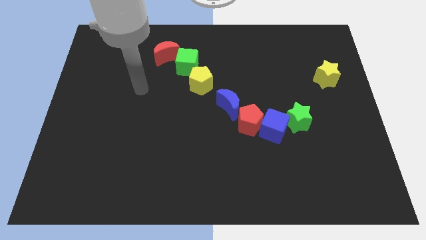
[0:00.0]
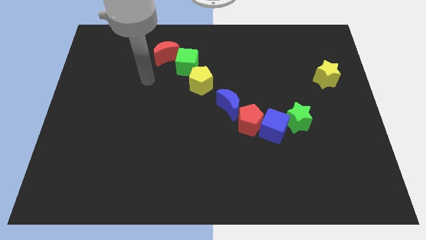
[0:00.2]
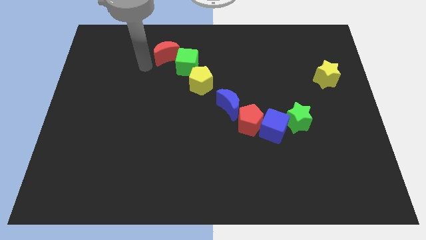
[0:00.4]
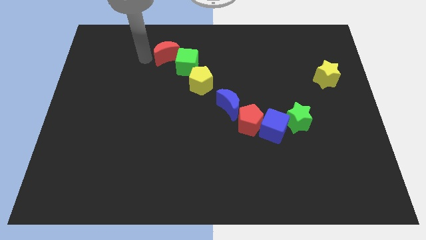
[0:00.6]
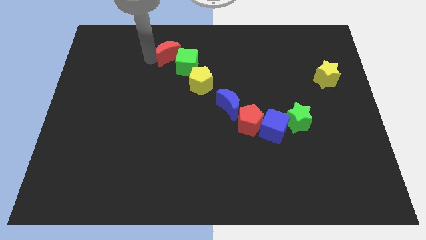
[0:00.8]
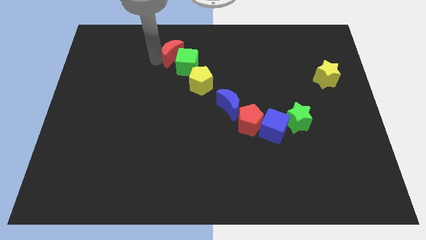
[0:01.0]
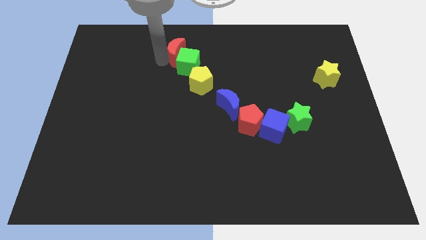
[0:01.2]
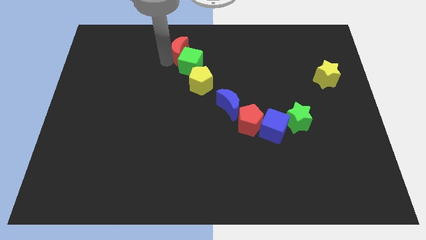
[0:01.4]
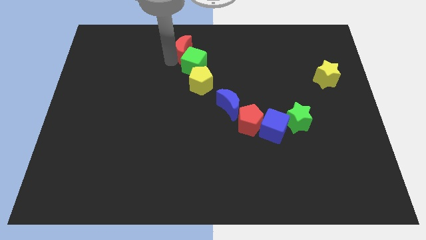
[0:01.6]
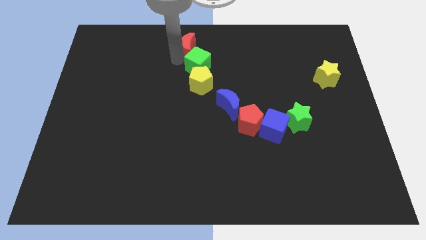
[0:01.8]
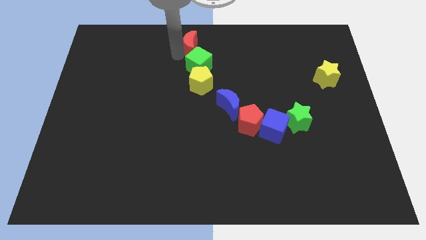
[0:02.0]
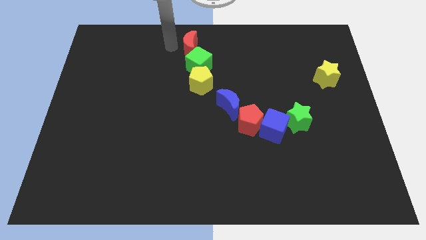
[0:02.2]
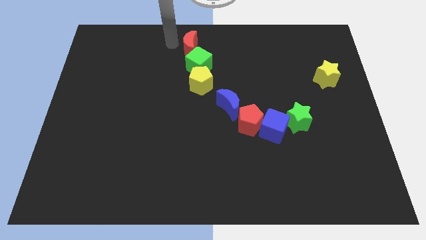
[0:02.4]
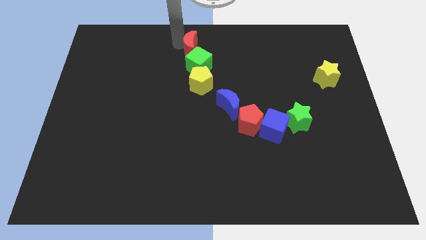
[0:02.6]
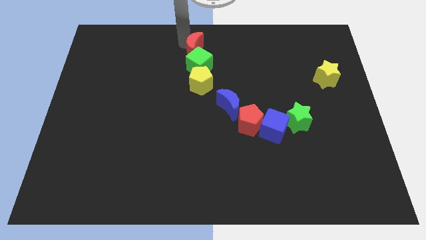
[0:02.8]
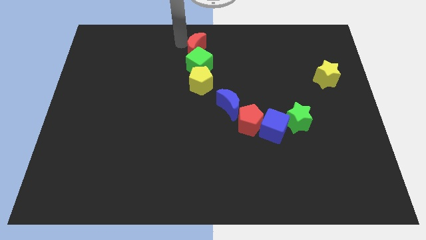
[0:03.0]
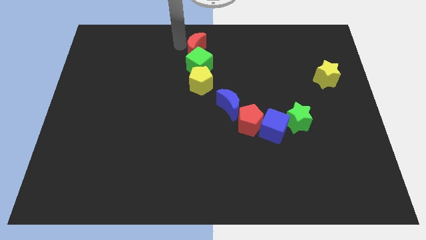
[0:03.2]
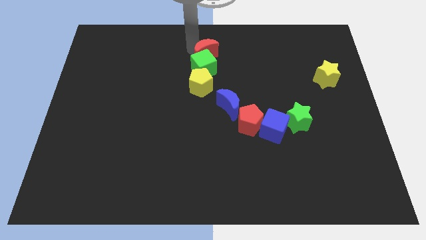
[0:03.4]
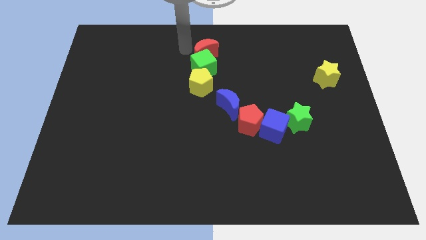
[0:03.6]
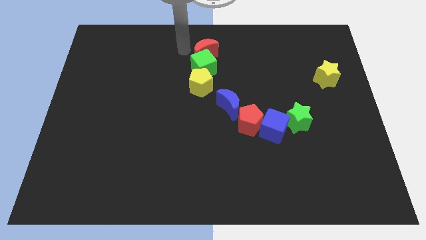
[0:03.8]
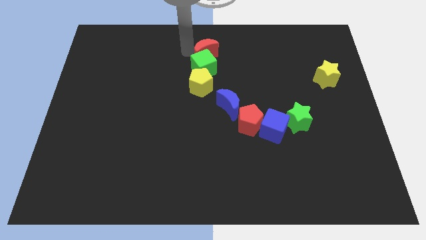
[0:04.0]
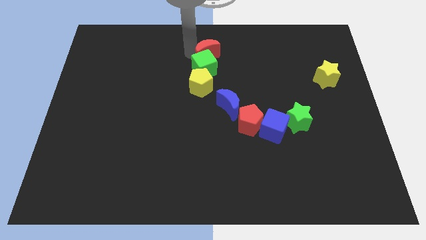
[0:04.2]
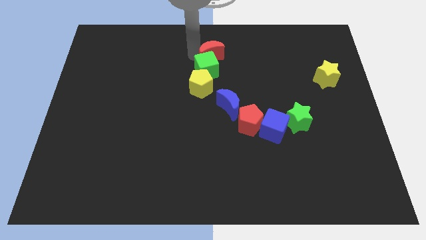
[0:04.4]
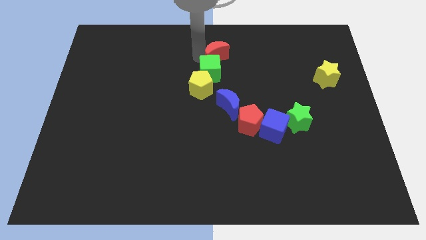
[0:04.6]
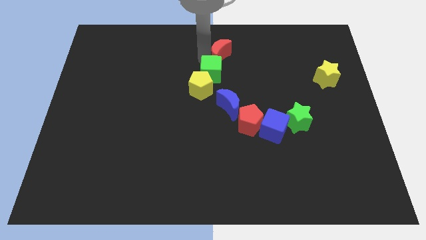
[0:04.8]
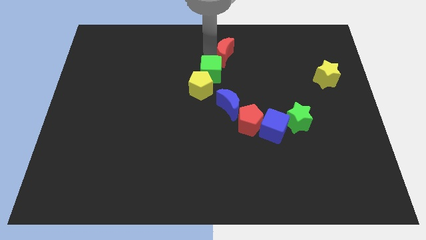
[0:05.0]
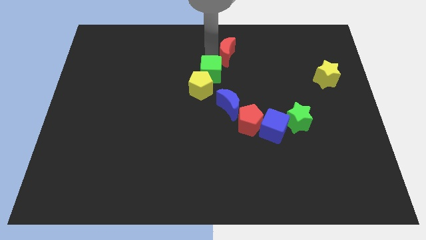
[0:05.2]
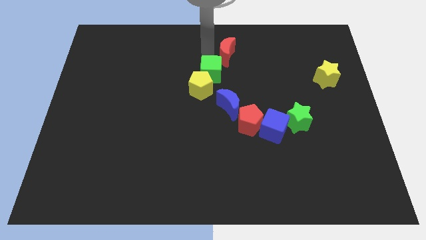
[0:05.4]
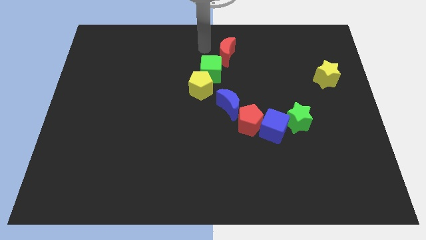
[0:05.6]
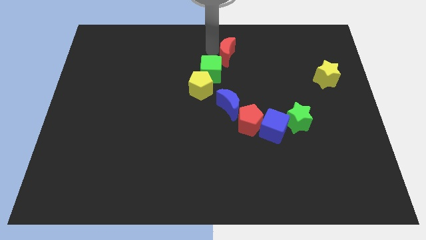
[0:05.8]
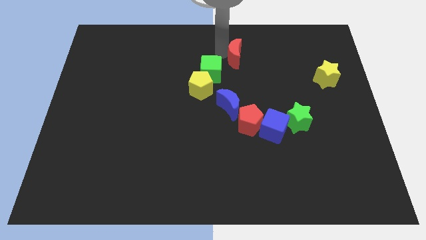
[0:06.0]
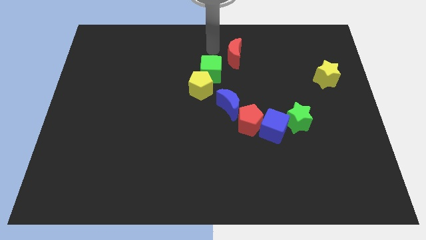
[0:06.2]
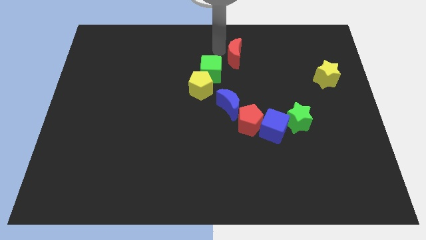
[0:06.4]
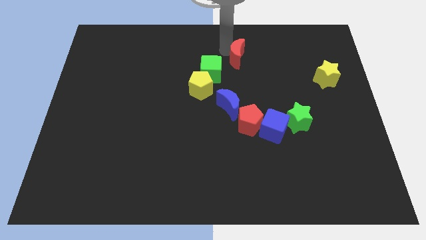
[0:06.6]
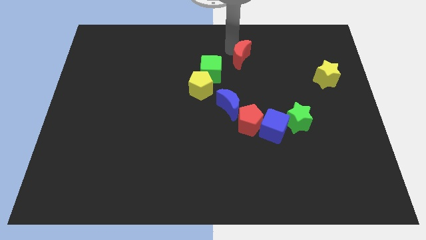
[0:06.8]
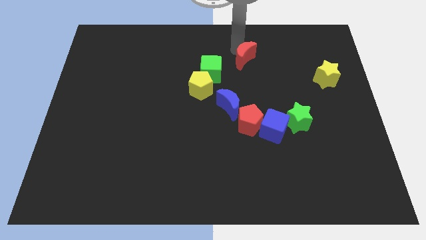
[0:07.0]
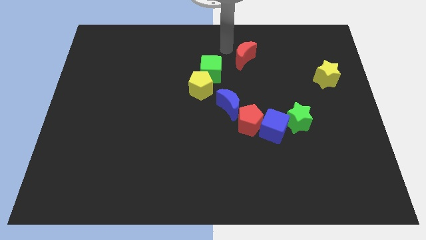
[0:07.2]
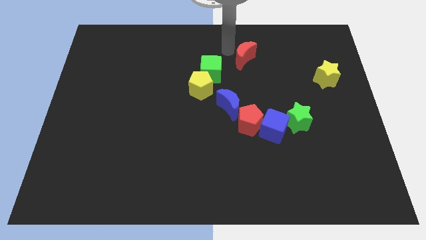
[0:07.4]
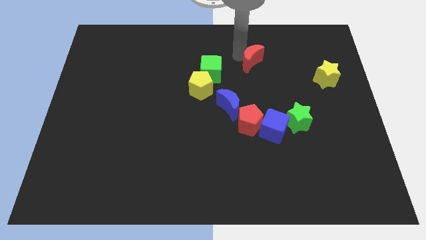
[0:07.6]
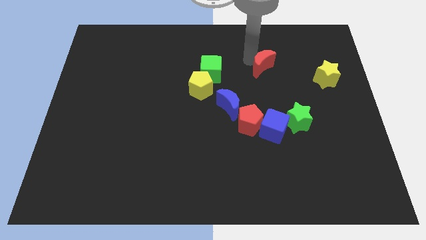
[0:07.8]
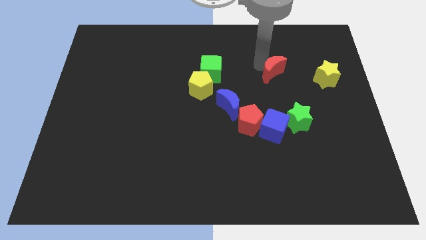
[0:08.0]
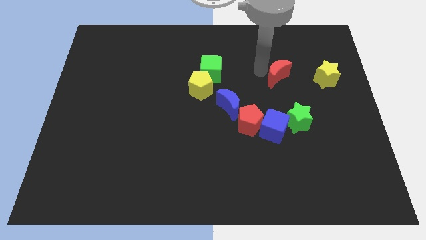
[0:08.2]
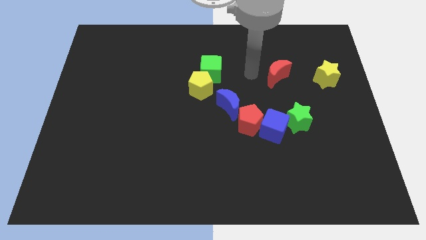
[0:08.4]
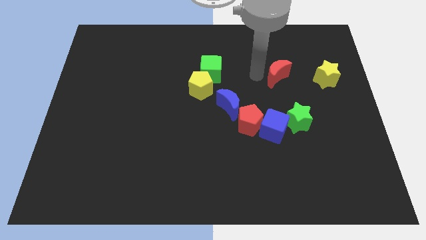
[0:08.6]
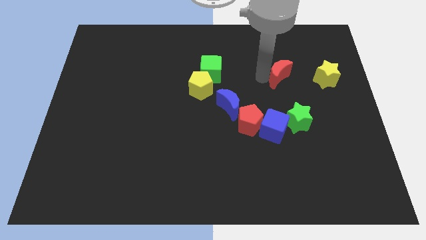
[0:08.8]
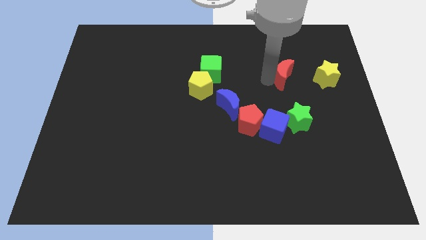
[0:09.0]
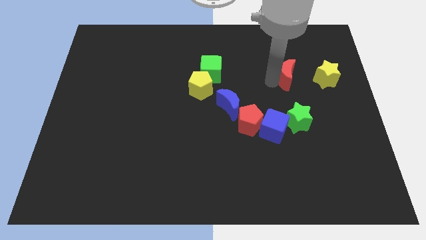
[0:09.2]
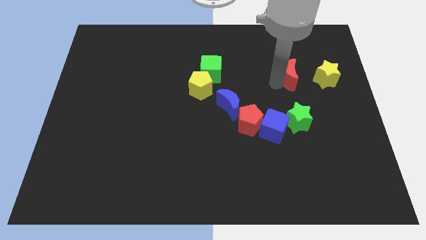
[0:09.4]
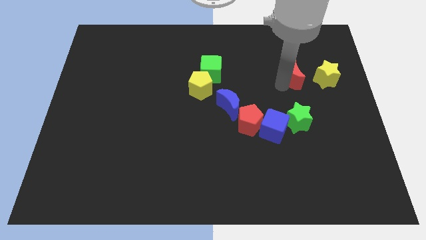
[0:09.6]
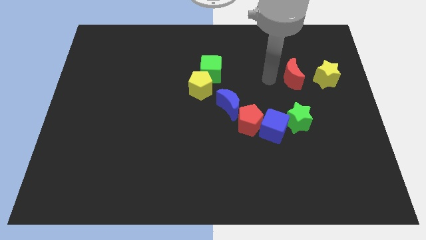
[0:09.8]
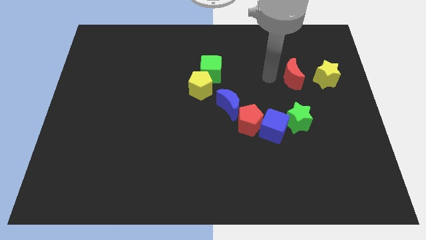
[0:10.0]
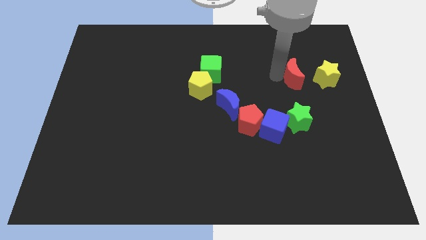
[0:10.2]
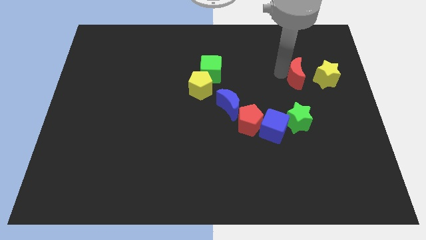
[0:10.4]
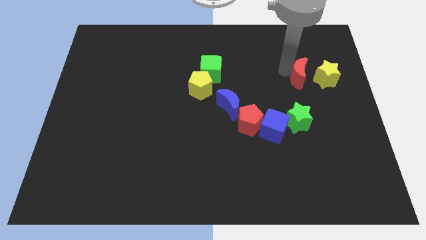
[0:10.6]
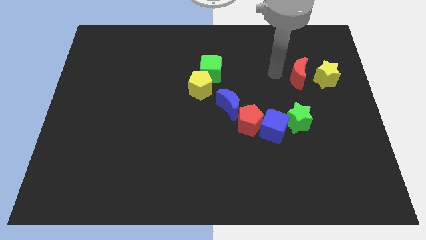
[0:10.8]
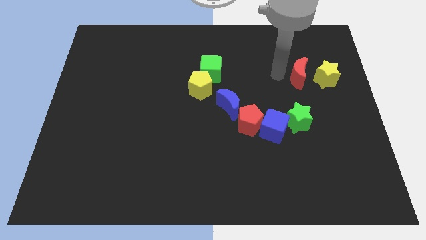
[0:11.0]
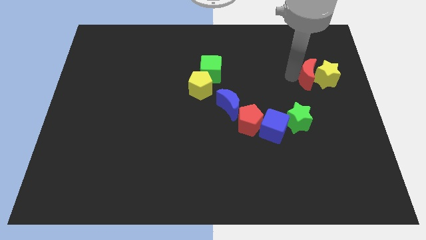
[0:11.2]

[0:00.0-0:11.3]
push the red moon towards the yellow star

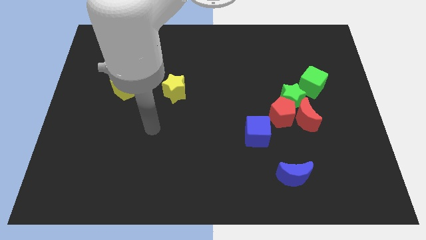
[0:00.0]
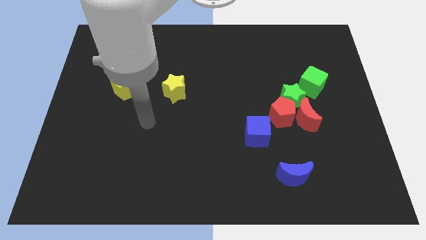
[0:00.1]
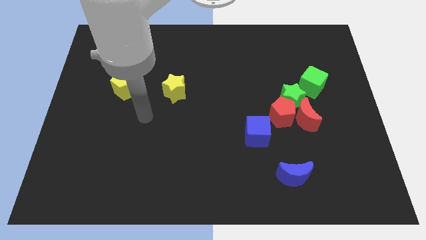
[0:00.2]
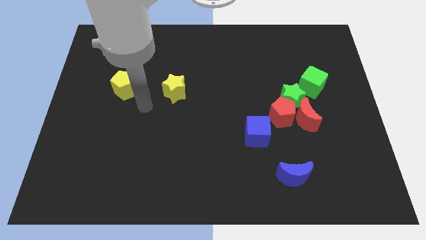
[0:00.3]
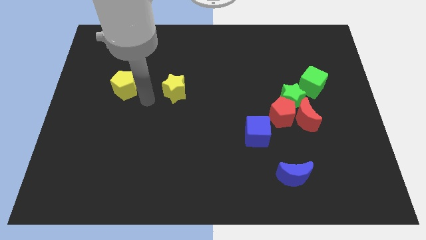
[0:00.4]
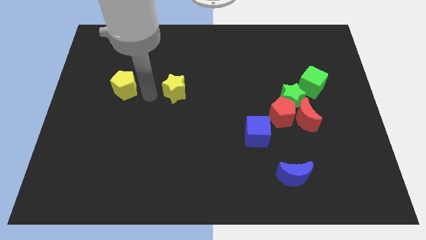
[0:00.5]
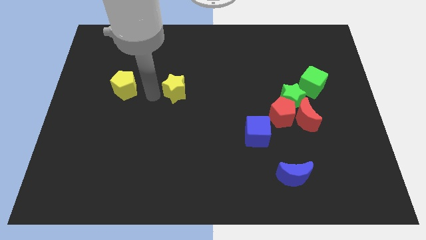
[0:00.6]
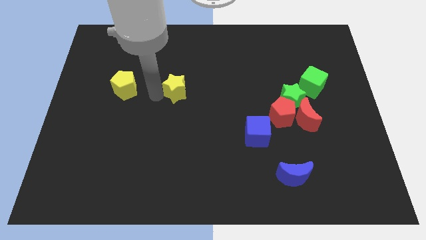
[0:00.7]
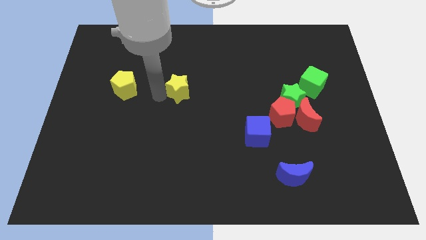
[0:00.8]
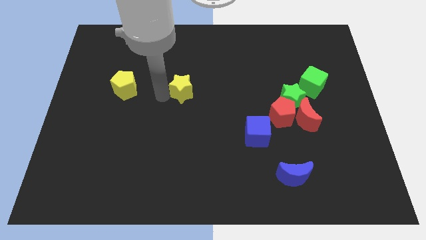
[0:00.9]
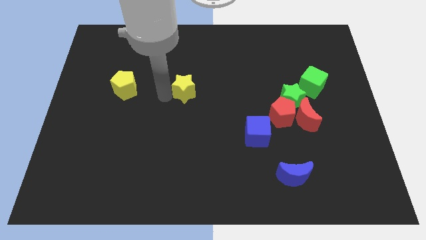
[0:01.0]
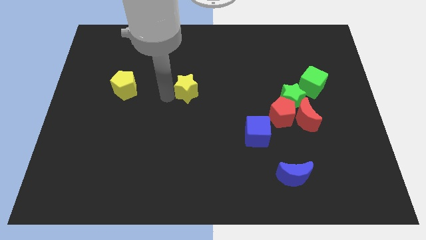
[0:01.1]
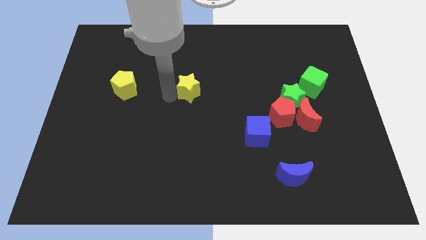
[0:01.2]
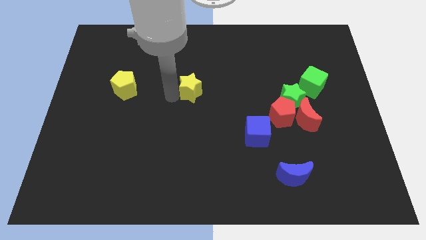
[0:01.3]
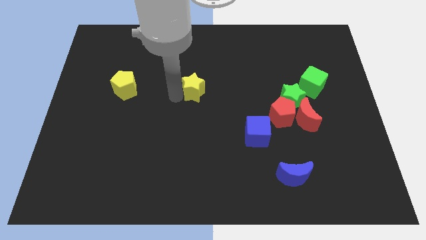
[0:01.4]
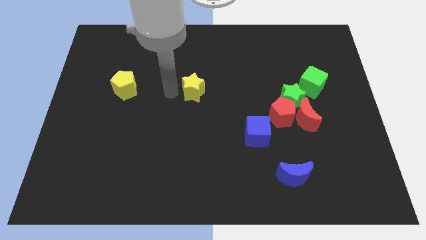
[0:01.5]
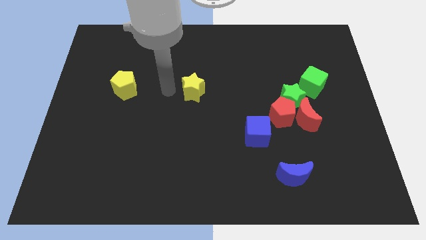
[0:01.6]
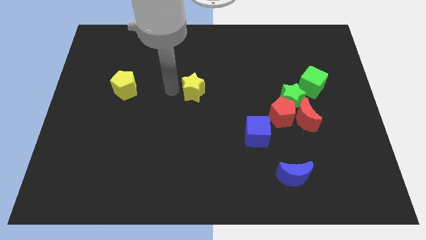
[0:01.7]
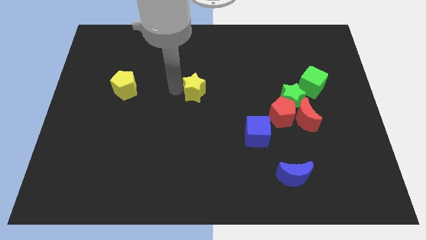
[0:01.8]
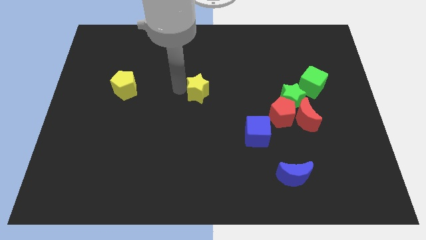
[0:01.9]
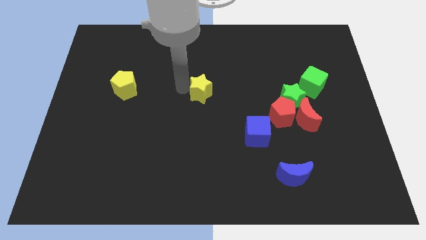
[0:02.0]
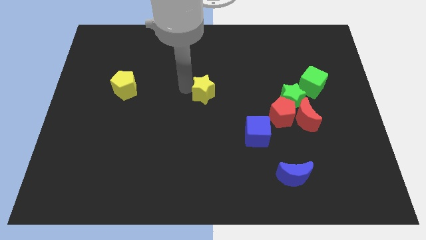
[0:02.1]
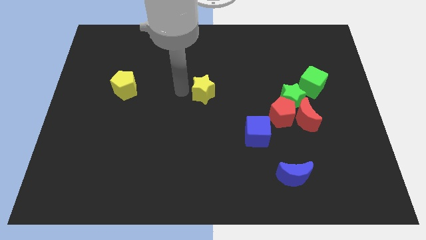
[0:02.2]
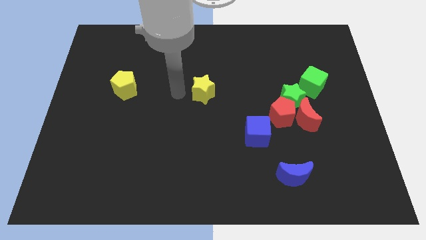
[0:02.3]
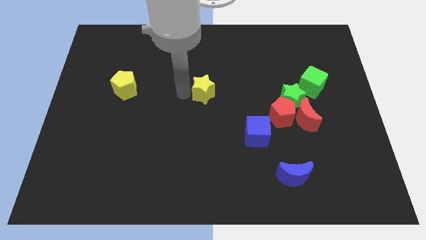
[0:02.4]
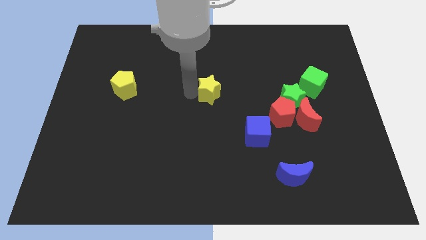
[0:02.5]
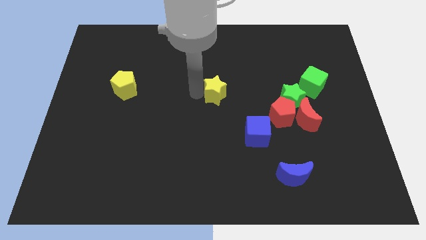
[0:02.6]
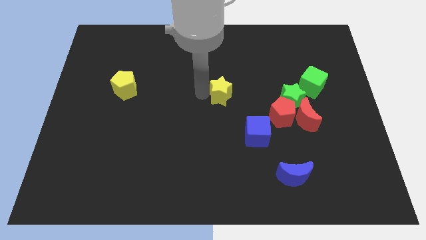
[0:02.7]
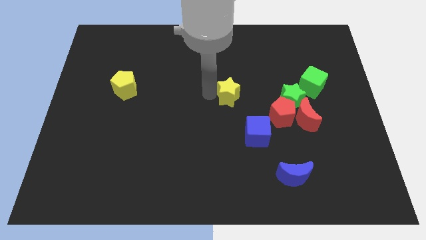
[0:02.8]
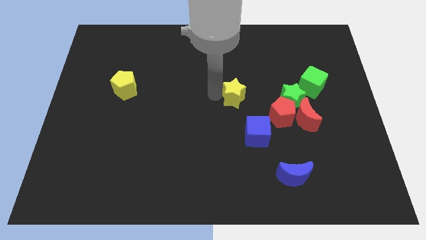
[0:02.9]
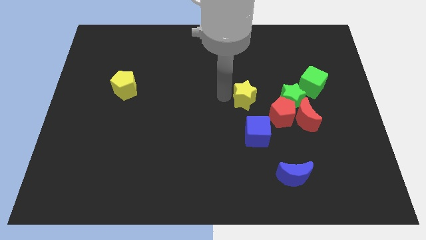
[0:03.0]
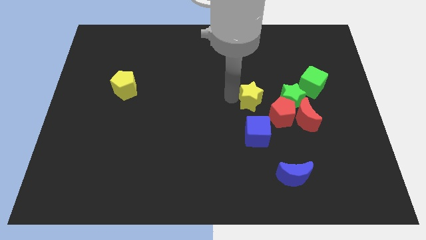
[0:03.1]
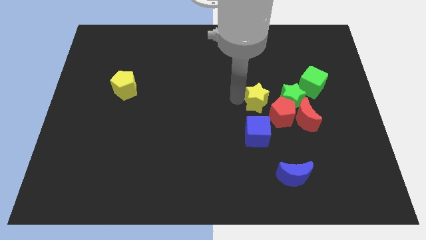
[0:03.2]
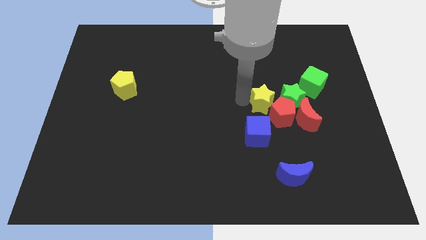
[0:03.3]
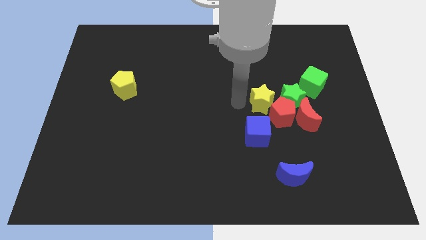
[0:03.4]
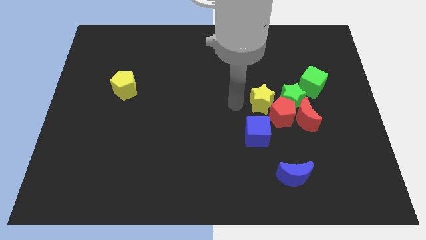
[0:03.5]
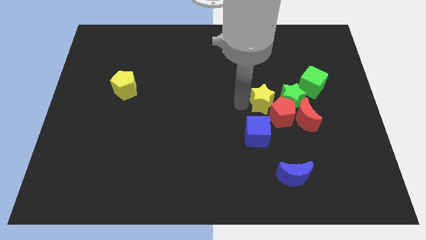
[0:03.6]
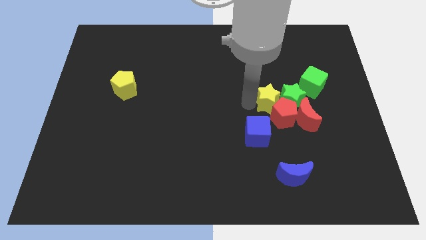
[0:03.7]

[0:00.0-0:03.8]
push the yellow star next to the green star
